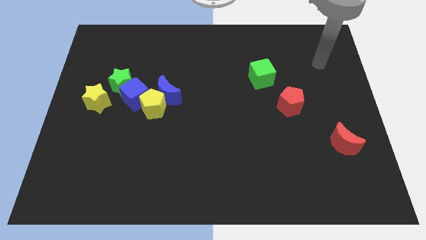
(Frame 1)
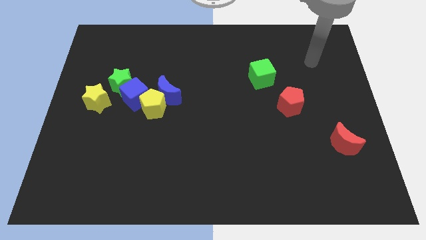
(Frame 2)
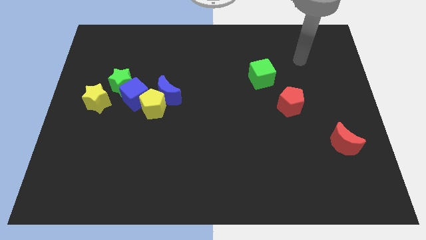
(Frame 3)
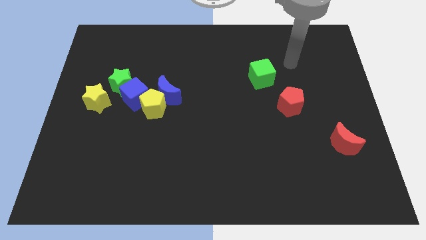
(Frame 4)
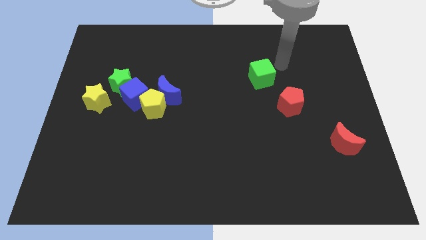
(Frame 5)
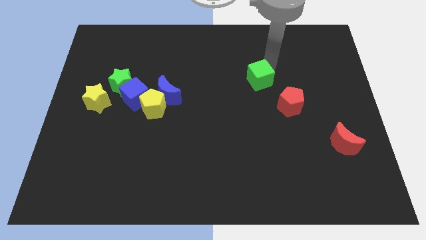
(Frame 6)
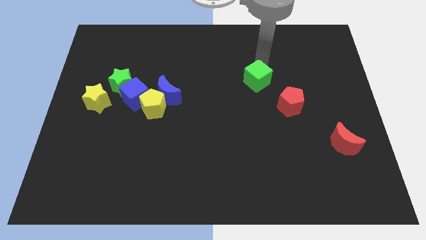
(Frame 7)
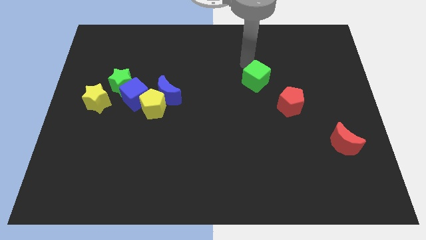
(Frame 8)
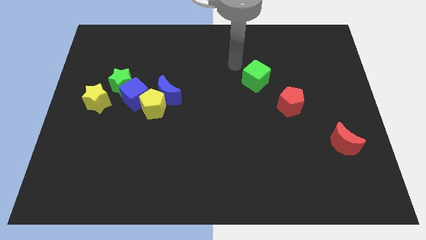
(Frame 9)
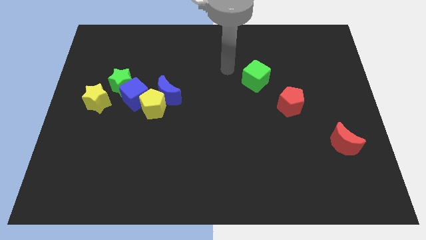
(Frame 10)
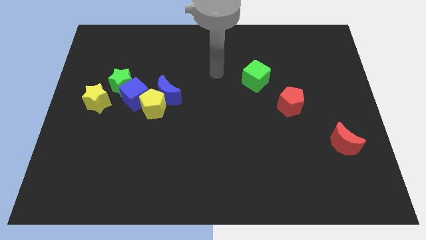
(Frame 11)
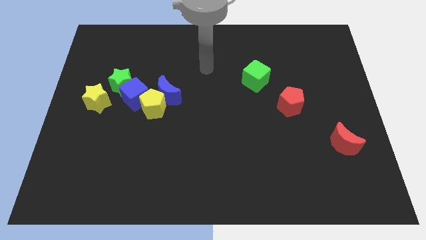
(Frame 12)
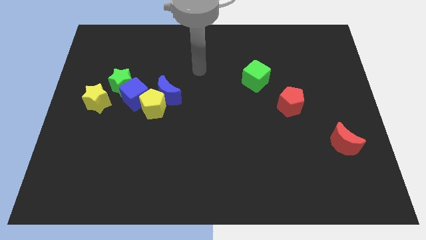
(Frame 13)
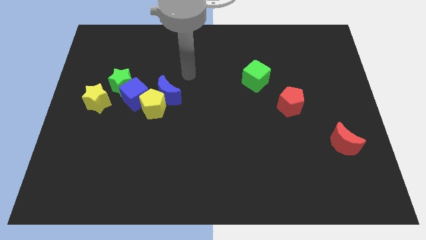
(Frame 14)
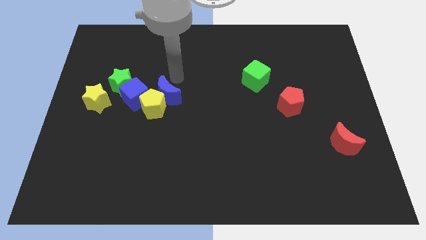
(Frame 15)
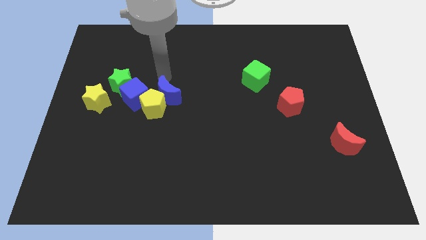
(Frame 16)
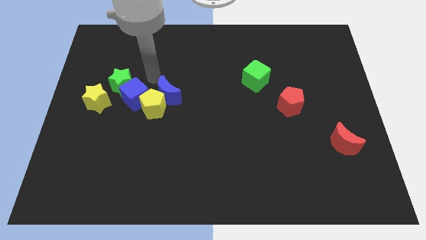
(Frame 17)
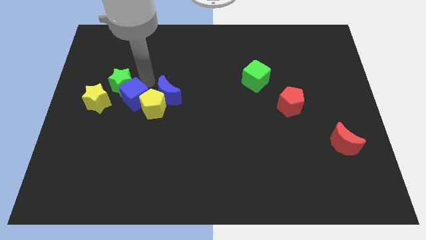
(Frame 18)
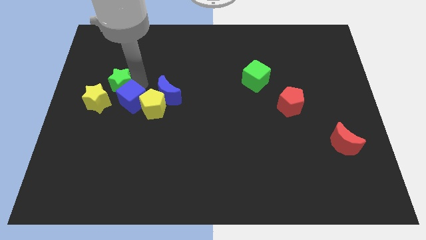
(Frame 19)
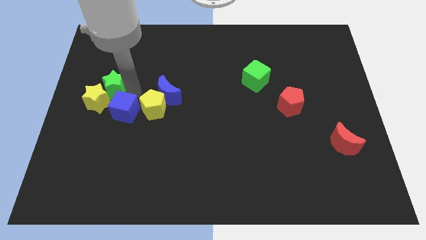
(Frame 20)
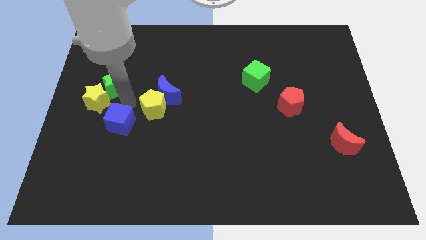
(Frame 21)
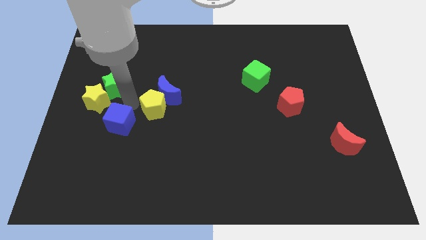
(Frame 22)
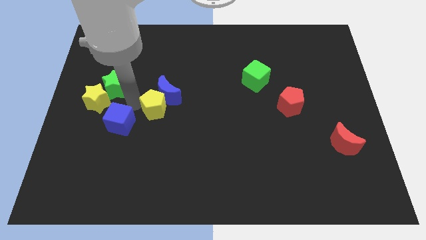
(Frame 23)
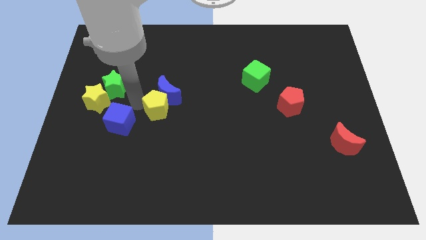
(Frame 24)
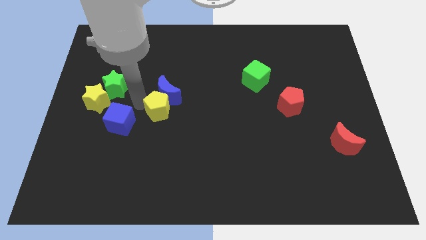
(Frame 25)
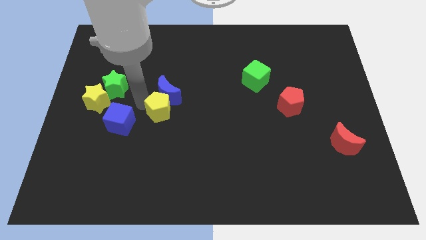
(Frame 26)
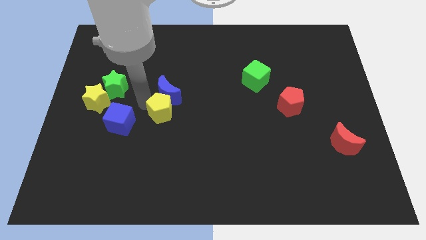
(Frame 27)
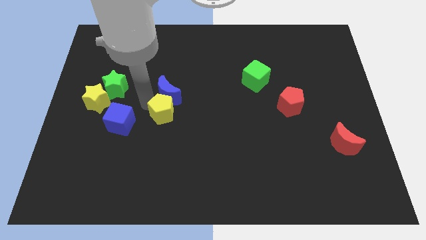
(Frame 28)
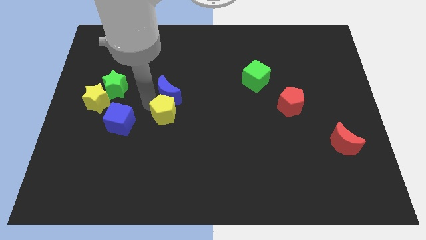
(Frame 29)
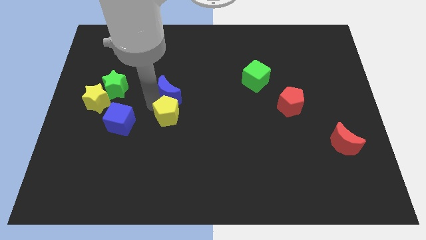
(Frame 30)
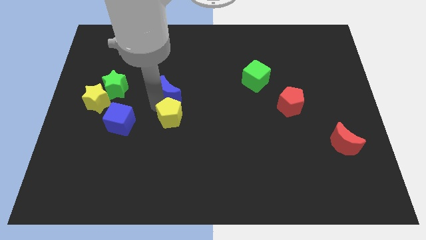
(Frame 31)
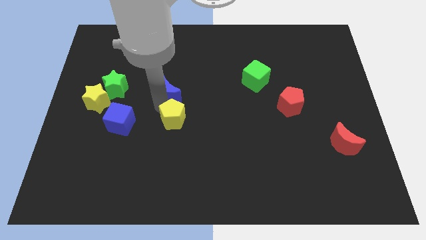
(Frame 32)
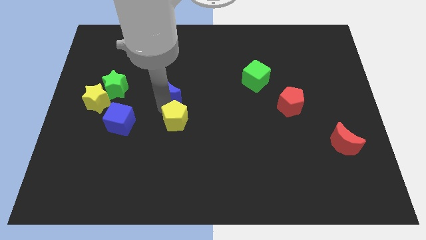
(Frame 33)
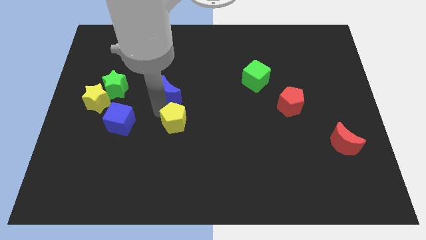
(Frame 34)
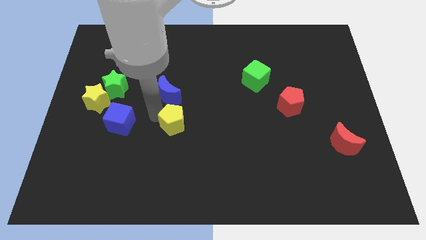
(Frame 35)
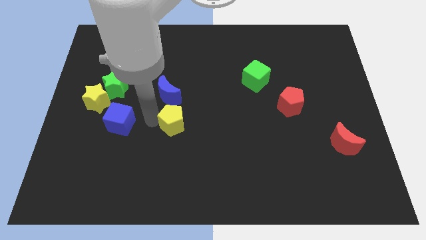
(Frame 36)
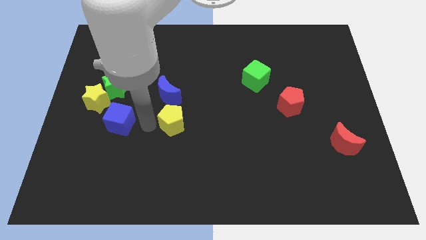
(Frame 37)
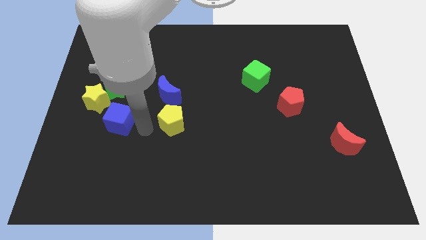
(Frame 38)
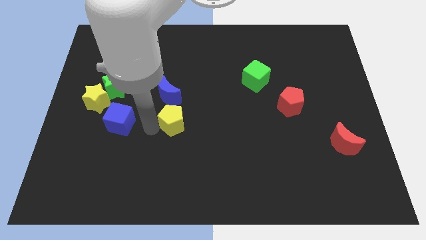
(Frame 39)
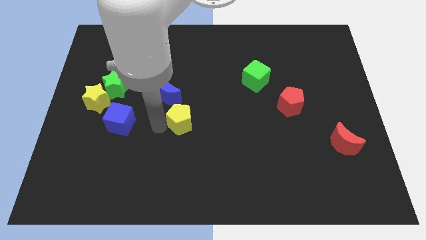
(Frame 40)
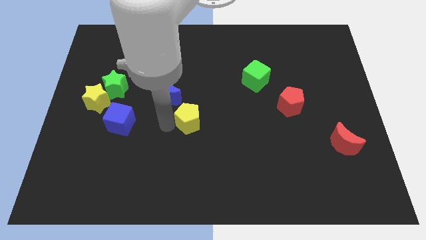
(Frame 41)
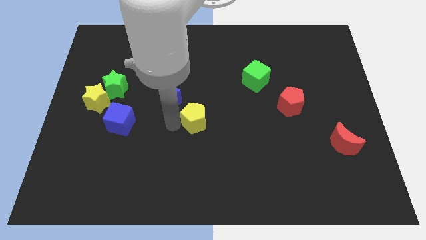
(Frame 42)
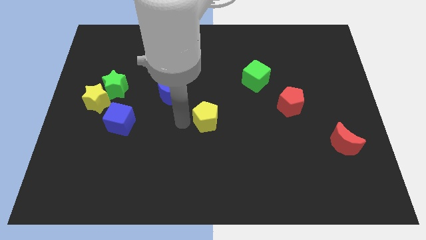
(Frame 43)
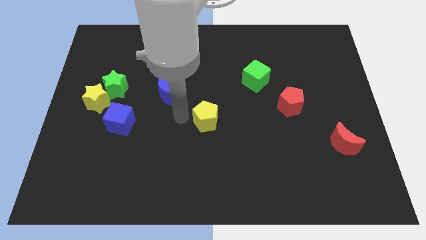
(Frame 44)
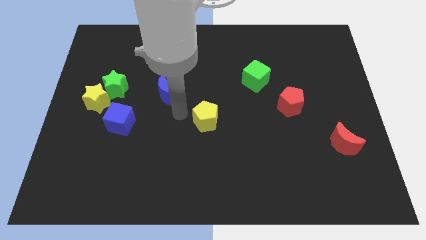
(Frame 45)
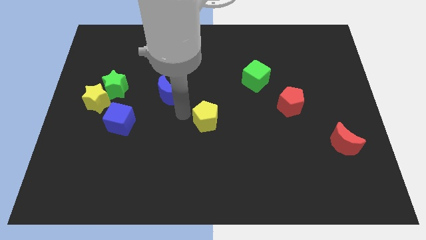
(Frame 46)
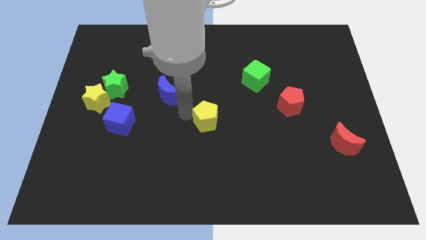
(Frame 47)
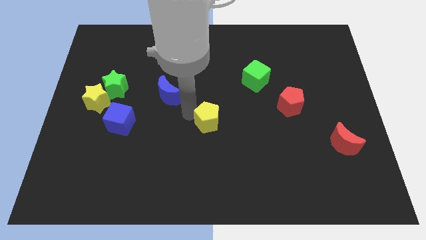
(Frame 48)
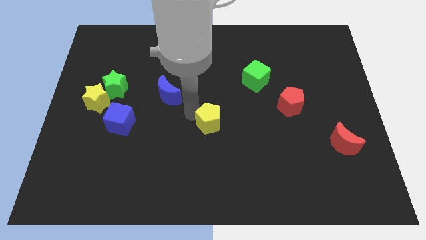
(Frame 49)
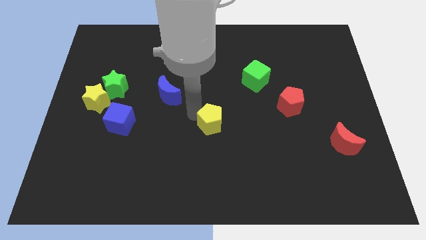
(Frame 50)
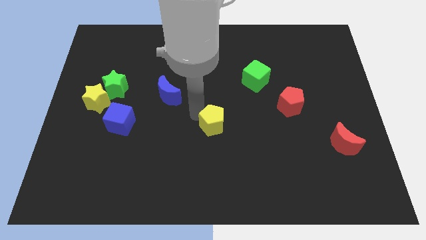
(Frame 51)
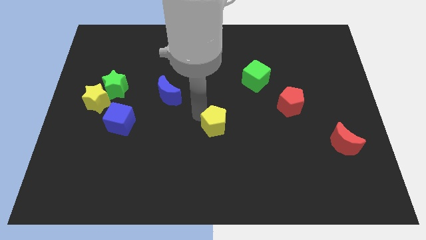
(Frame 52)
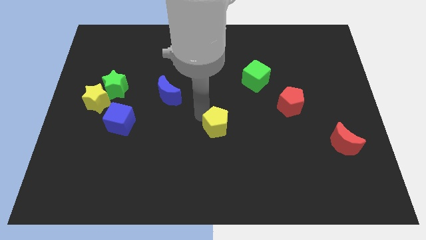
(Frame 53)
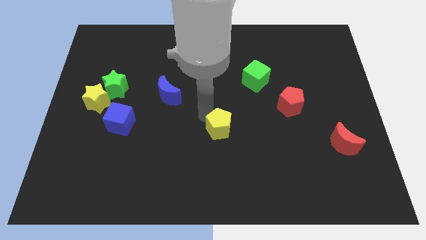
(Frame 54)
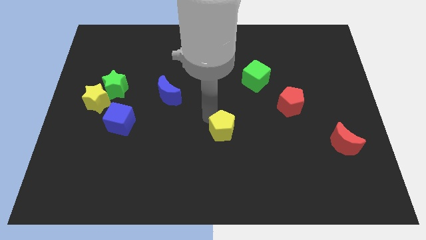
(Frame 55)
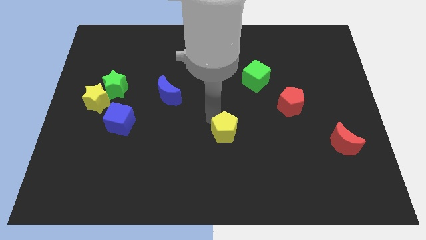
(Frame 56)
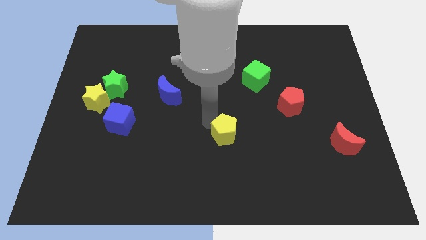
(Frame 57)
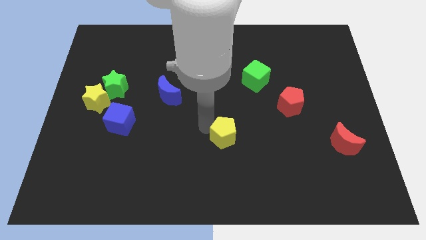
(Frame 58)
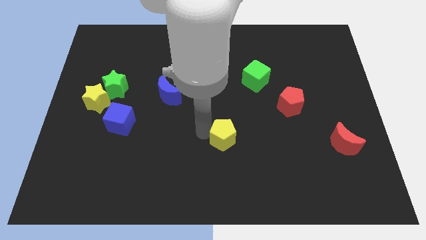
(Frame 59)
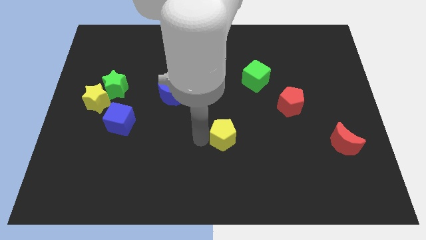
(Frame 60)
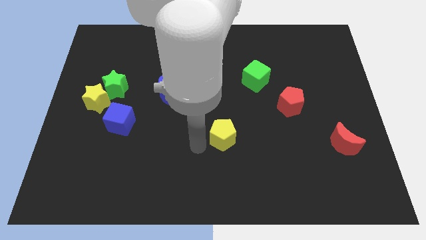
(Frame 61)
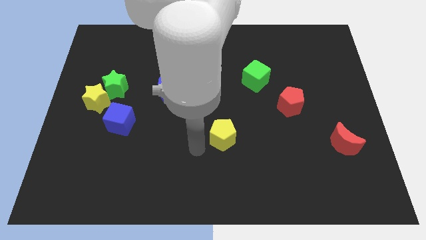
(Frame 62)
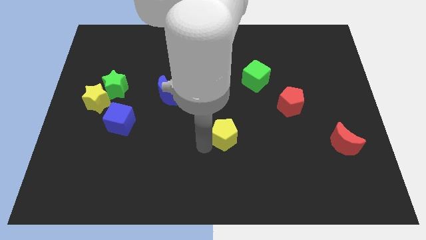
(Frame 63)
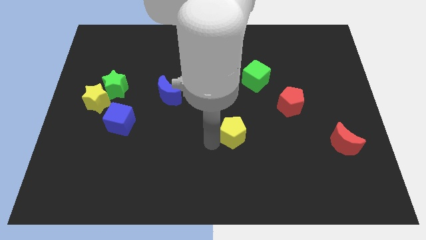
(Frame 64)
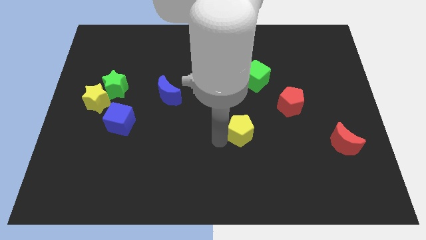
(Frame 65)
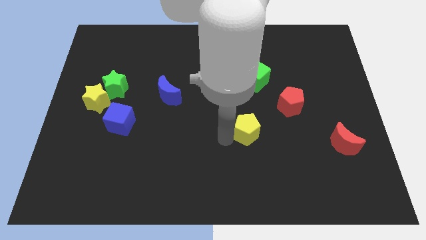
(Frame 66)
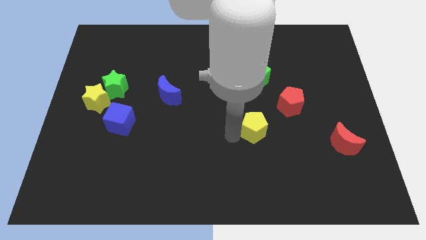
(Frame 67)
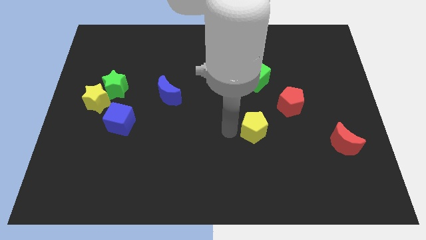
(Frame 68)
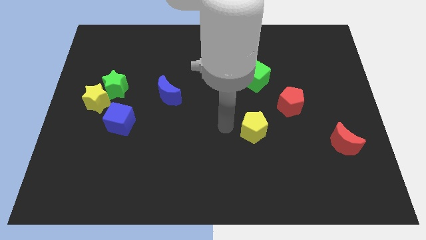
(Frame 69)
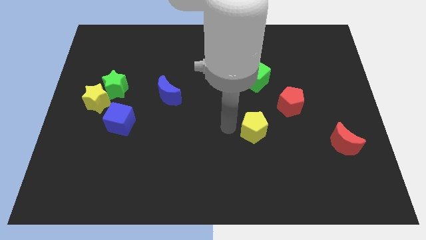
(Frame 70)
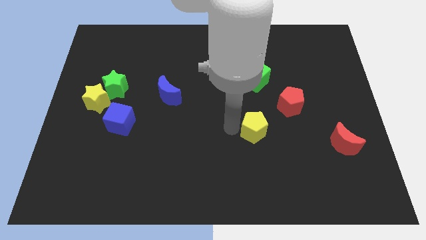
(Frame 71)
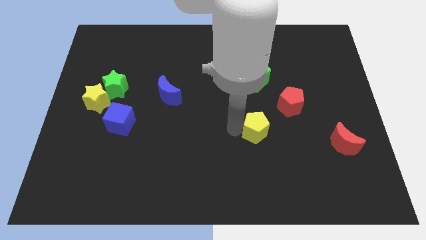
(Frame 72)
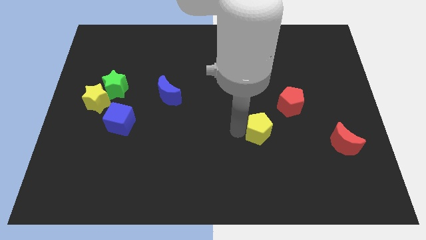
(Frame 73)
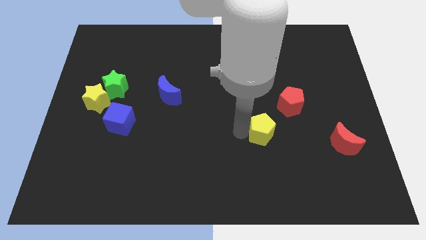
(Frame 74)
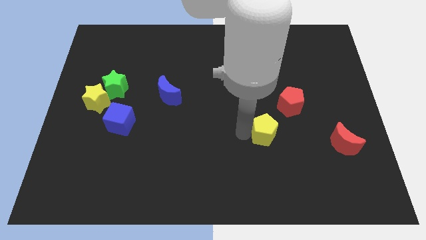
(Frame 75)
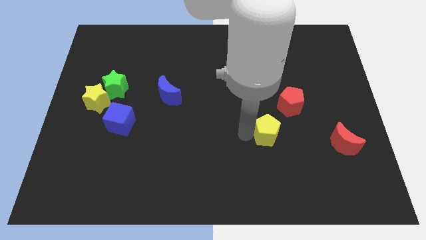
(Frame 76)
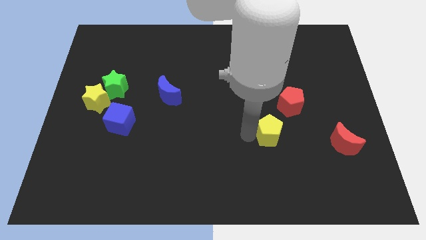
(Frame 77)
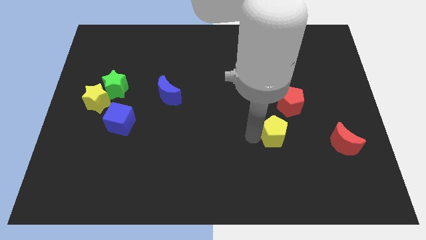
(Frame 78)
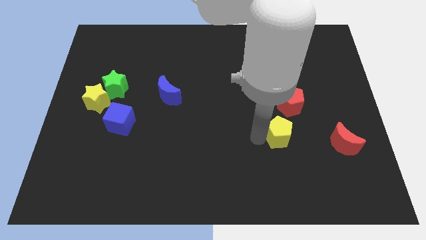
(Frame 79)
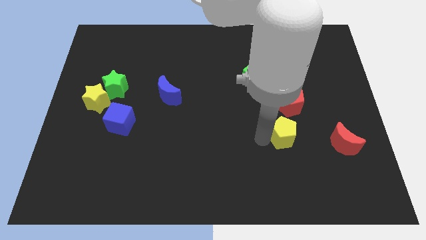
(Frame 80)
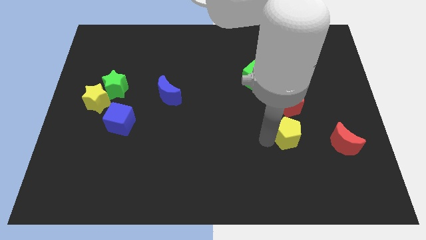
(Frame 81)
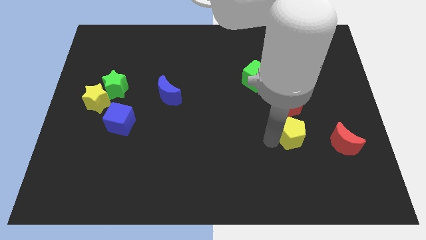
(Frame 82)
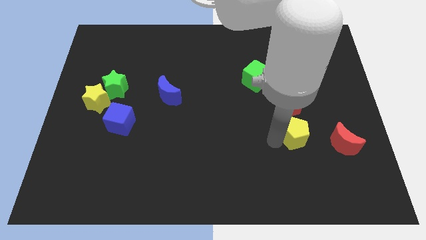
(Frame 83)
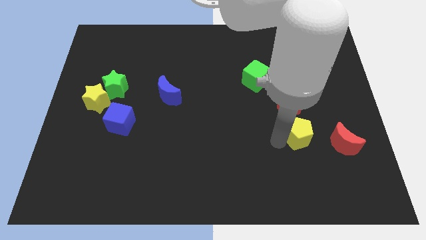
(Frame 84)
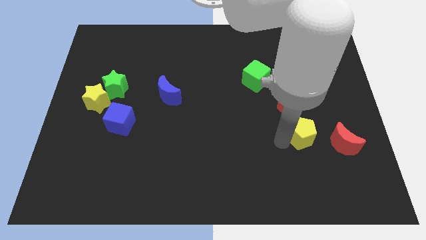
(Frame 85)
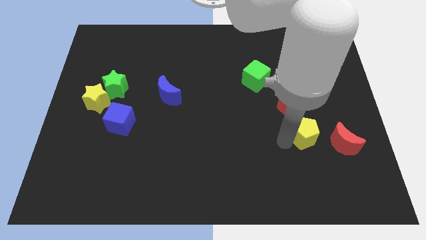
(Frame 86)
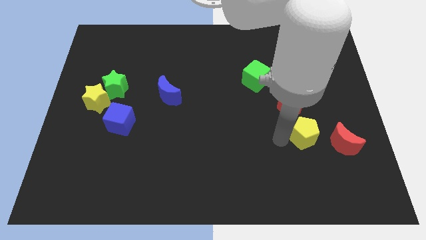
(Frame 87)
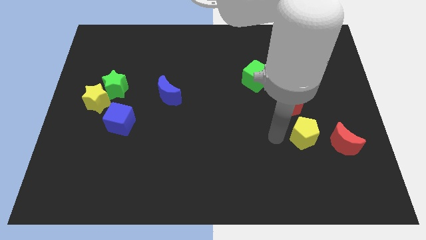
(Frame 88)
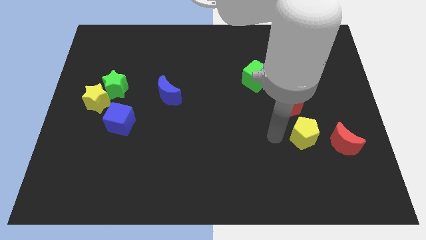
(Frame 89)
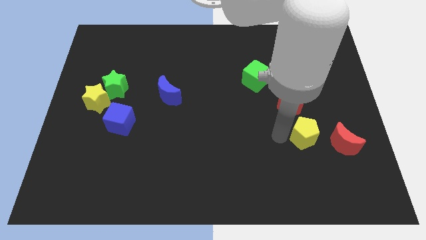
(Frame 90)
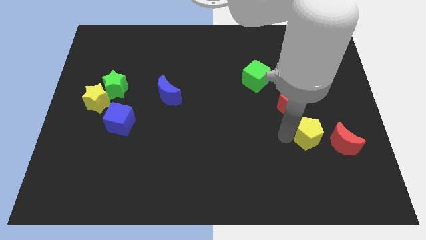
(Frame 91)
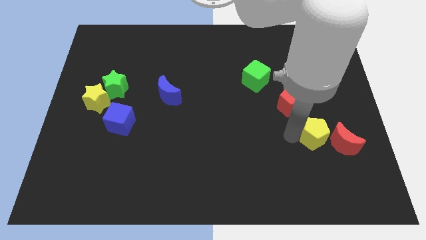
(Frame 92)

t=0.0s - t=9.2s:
slide the yellow pentagon to the red moon
